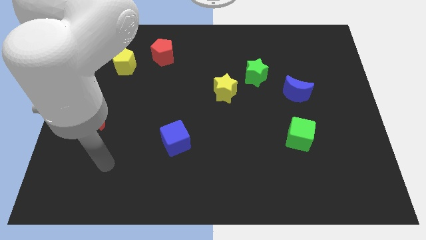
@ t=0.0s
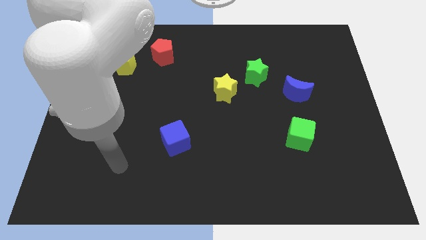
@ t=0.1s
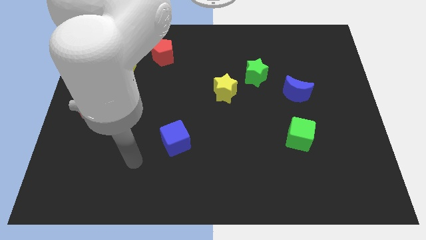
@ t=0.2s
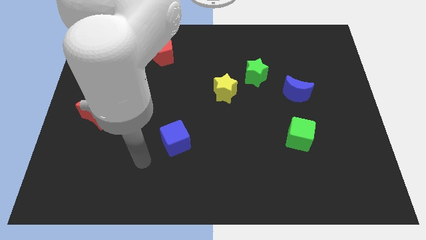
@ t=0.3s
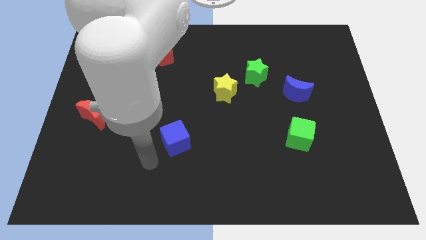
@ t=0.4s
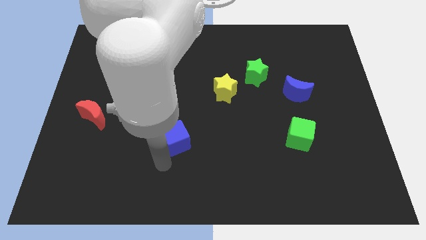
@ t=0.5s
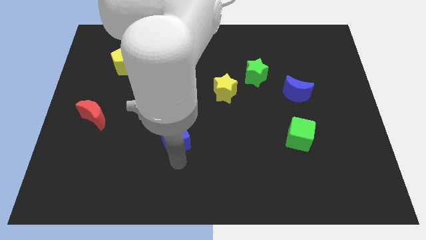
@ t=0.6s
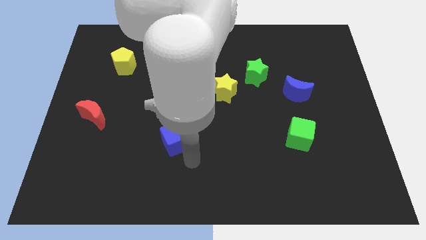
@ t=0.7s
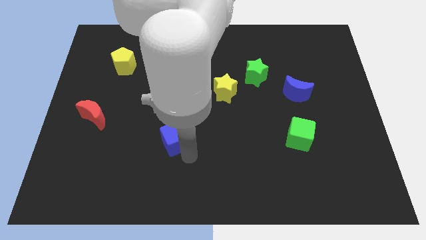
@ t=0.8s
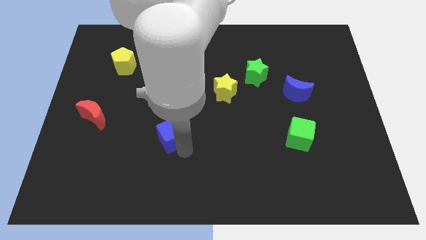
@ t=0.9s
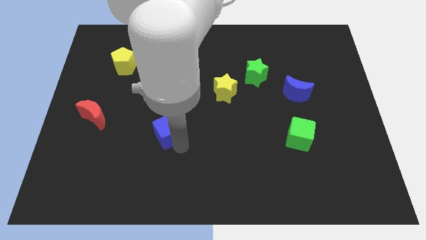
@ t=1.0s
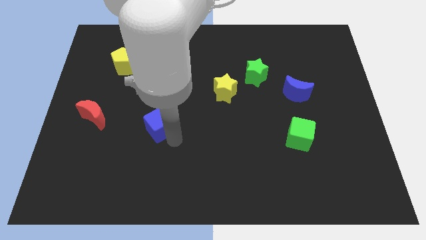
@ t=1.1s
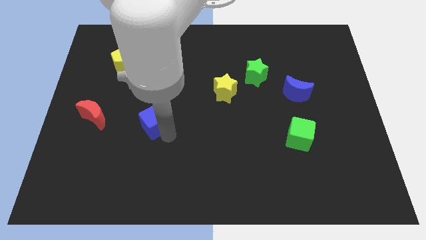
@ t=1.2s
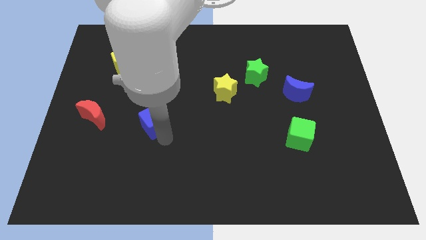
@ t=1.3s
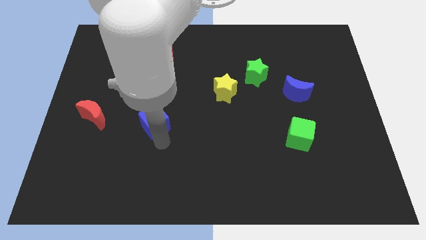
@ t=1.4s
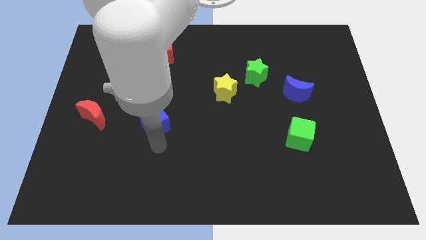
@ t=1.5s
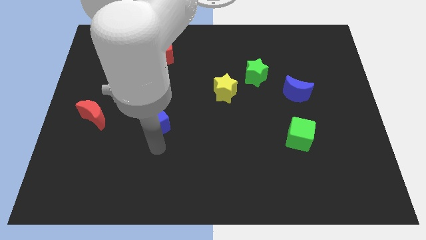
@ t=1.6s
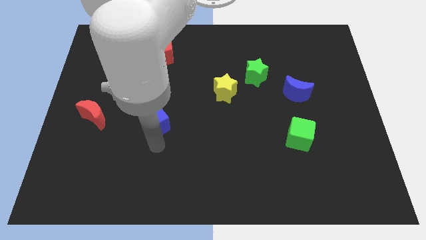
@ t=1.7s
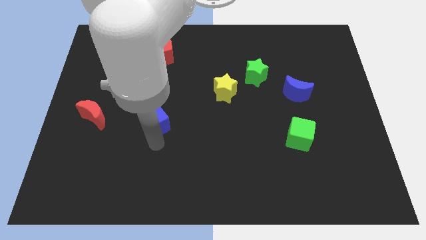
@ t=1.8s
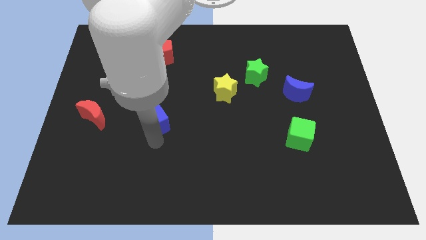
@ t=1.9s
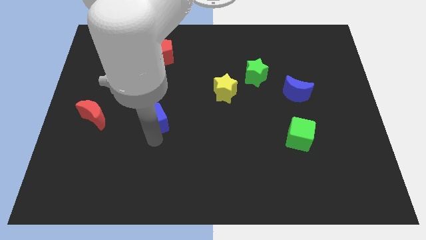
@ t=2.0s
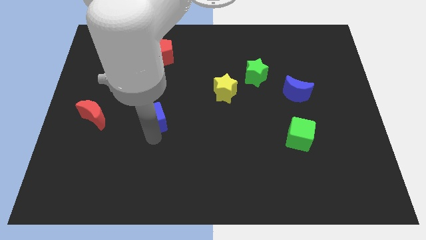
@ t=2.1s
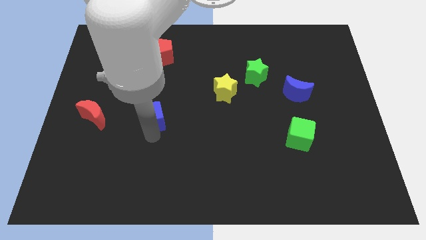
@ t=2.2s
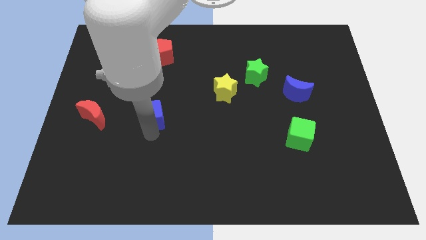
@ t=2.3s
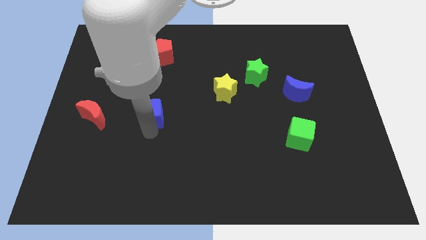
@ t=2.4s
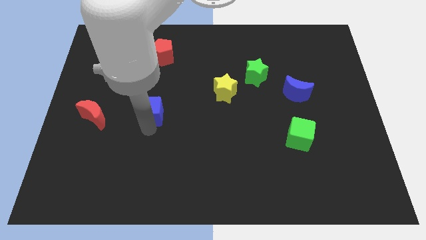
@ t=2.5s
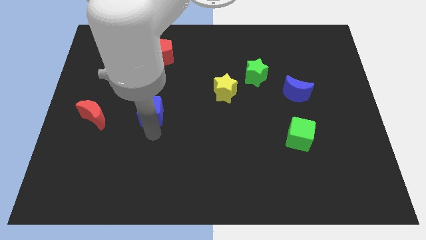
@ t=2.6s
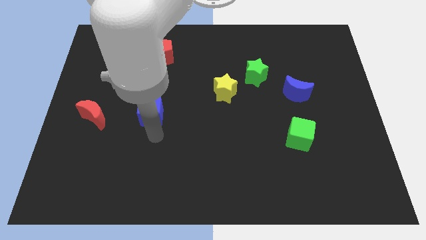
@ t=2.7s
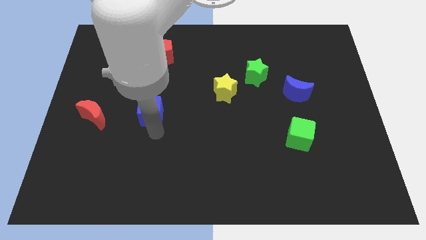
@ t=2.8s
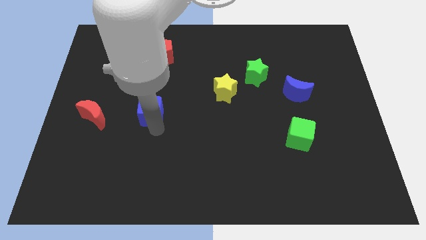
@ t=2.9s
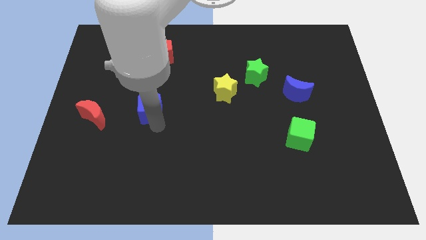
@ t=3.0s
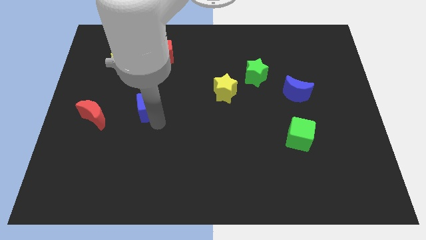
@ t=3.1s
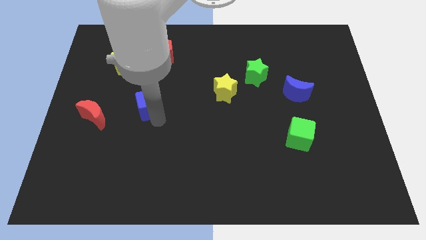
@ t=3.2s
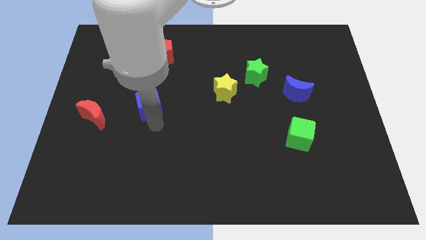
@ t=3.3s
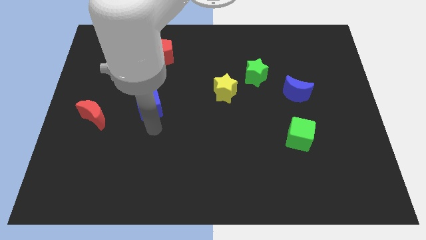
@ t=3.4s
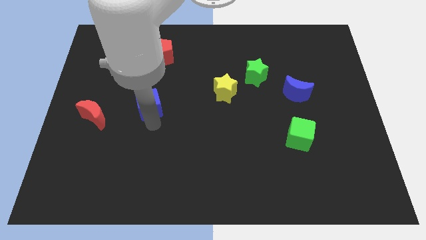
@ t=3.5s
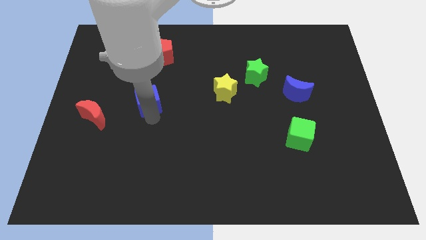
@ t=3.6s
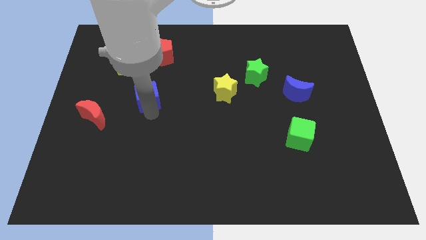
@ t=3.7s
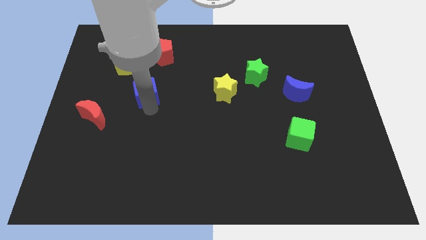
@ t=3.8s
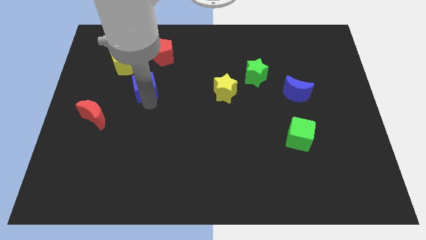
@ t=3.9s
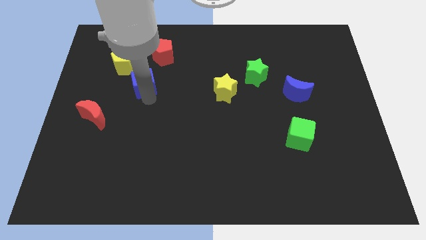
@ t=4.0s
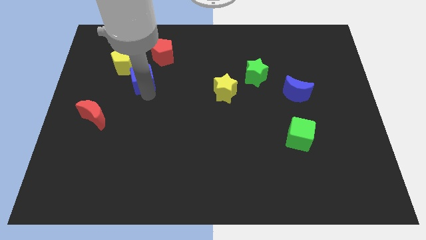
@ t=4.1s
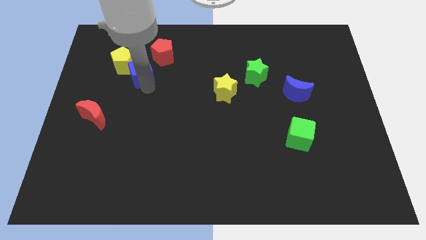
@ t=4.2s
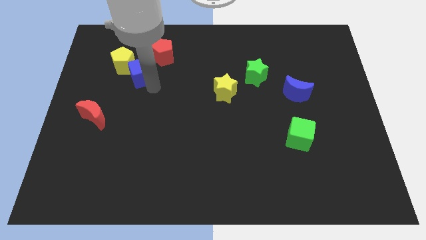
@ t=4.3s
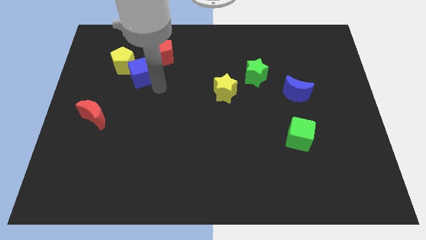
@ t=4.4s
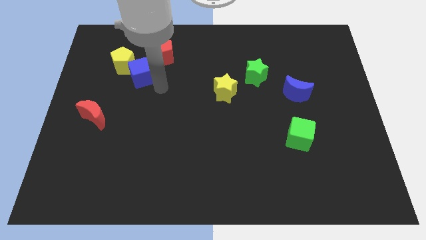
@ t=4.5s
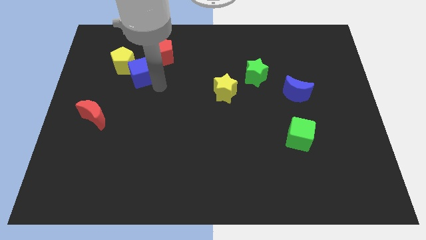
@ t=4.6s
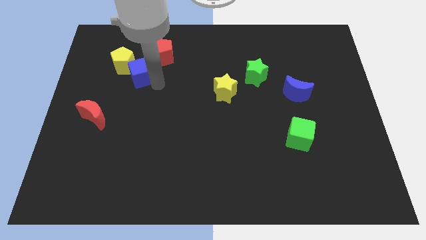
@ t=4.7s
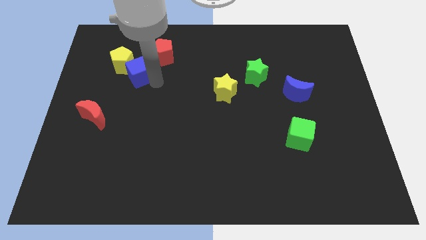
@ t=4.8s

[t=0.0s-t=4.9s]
push the blue cube to the yellow pentagon

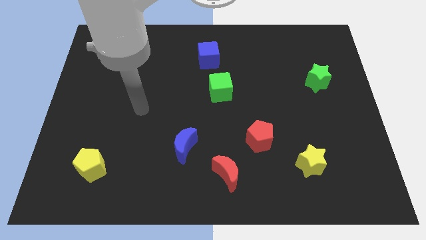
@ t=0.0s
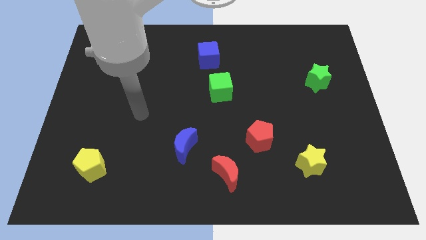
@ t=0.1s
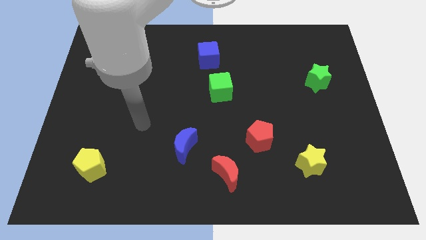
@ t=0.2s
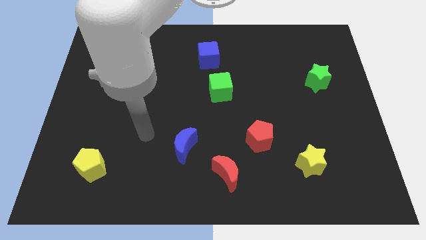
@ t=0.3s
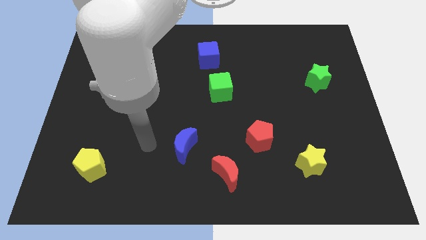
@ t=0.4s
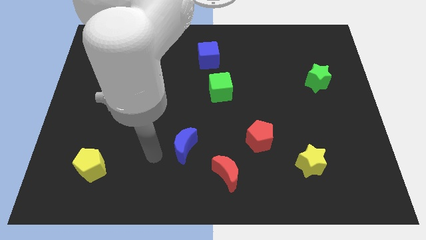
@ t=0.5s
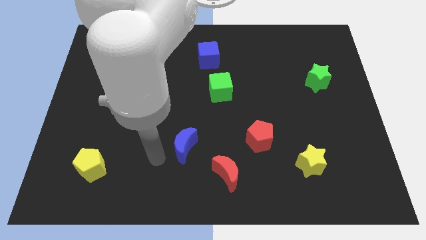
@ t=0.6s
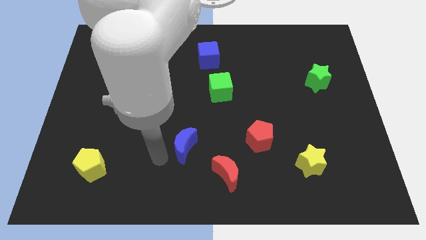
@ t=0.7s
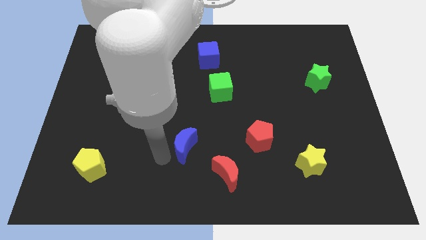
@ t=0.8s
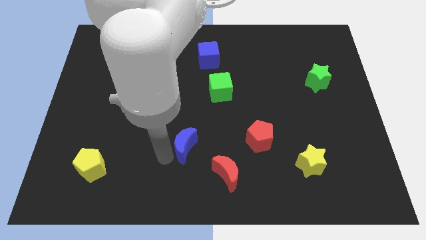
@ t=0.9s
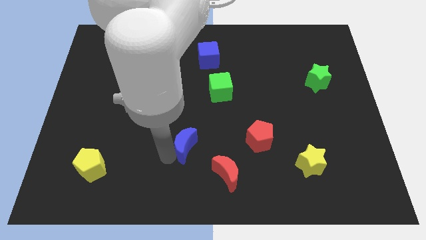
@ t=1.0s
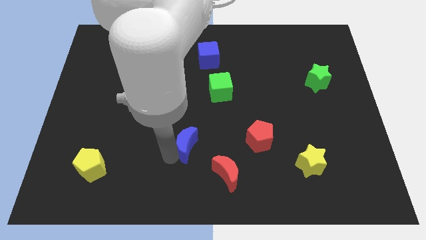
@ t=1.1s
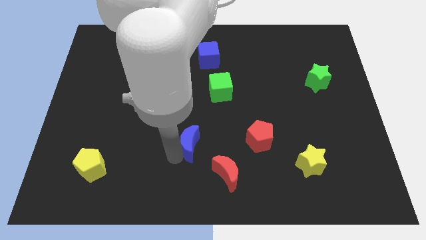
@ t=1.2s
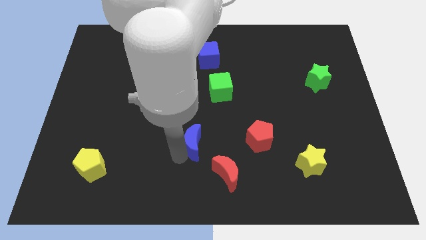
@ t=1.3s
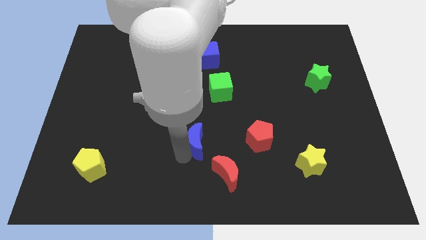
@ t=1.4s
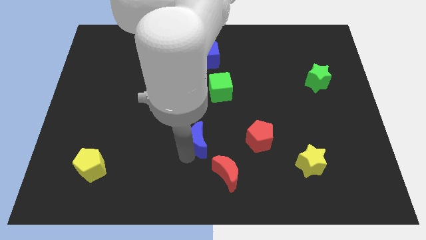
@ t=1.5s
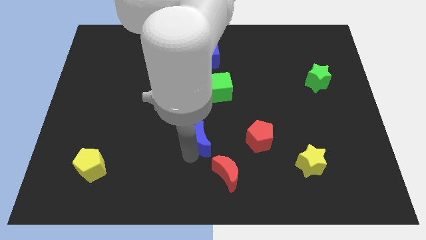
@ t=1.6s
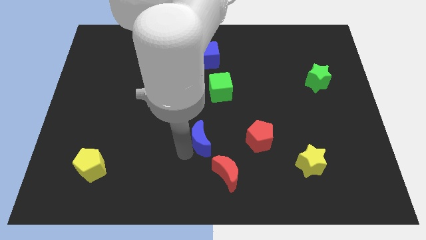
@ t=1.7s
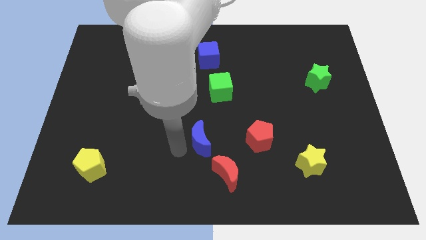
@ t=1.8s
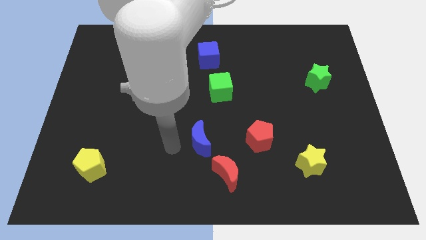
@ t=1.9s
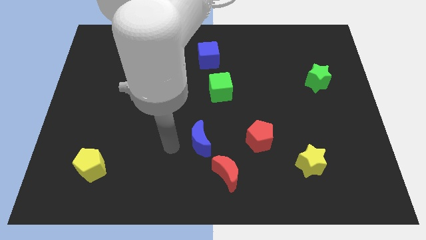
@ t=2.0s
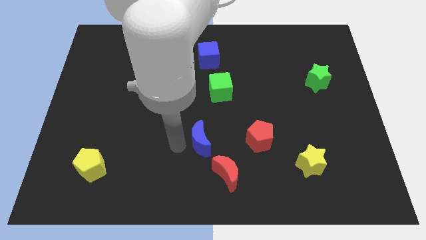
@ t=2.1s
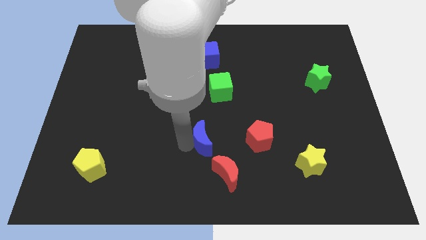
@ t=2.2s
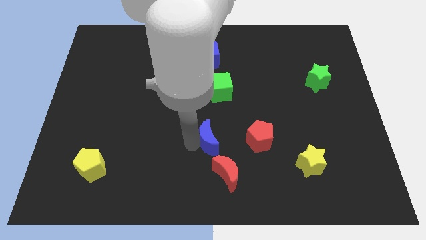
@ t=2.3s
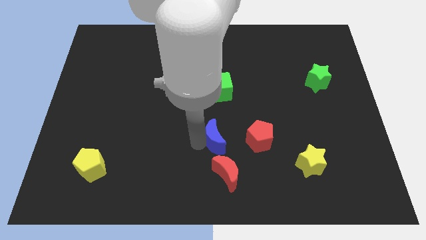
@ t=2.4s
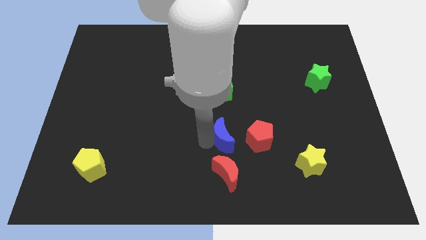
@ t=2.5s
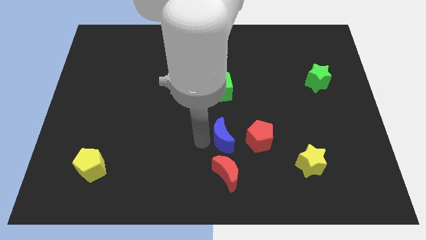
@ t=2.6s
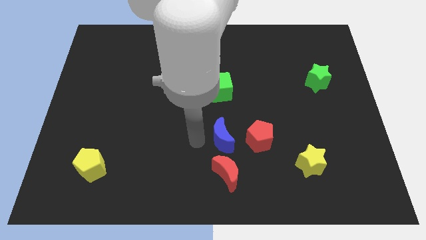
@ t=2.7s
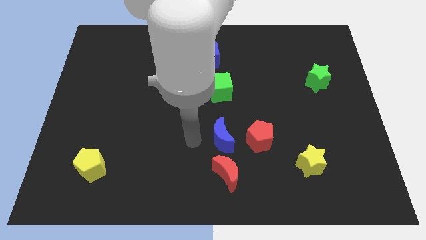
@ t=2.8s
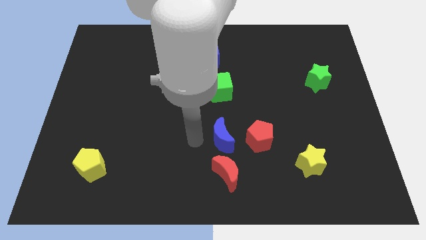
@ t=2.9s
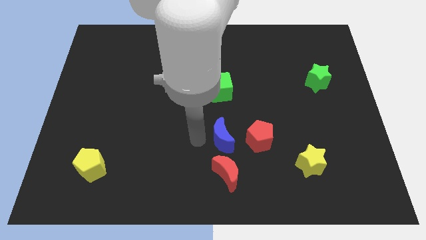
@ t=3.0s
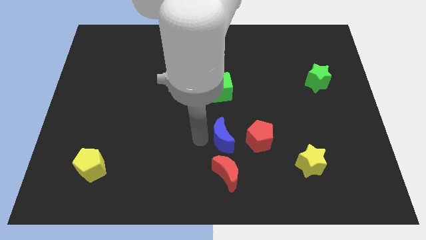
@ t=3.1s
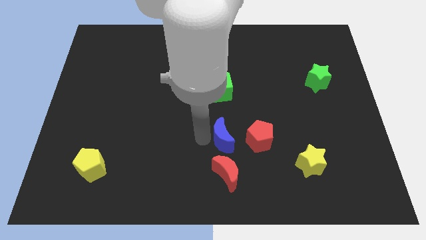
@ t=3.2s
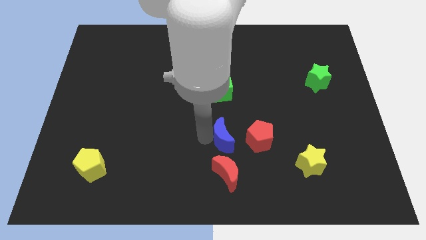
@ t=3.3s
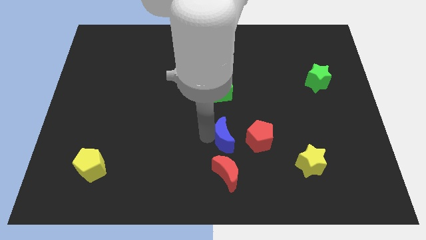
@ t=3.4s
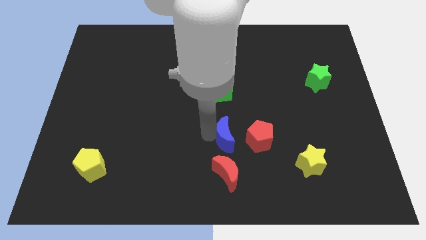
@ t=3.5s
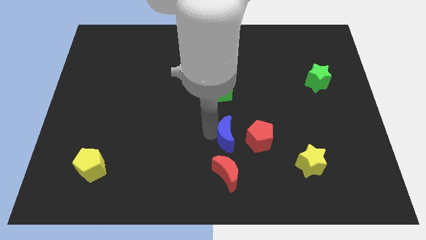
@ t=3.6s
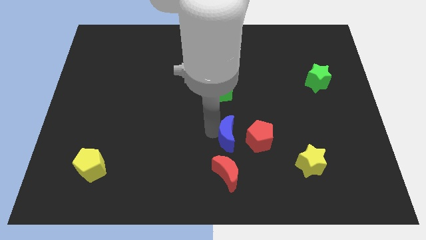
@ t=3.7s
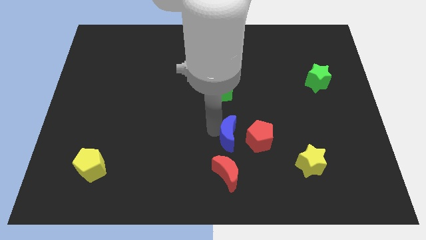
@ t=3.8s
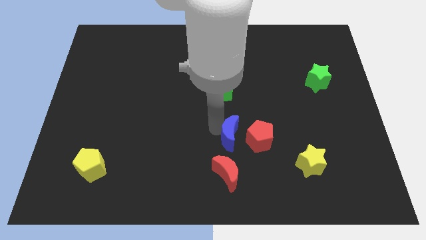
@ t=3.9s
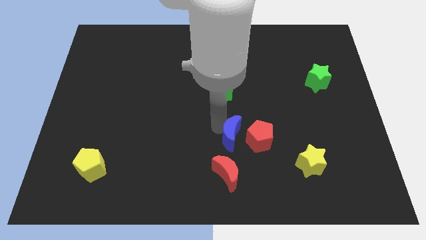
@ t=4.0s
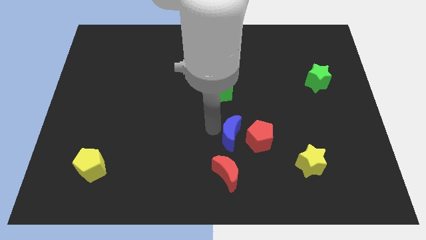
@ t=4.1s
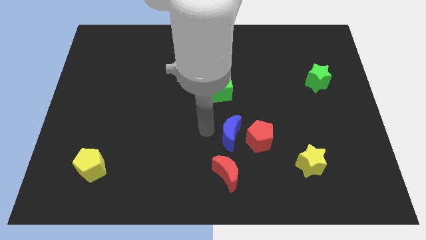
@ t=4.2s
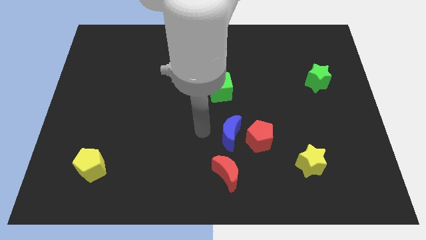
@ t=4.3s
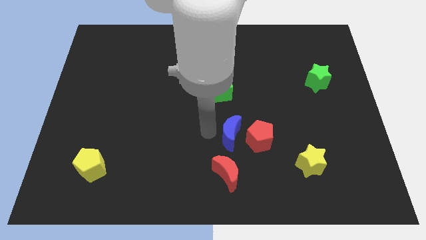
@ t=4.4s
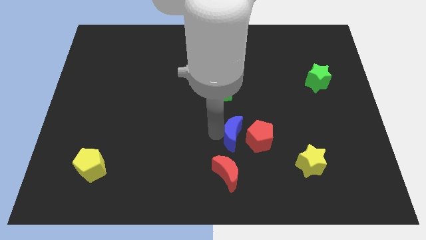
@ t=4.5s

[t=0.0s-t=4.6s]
push the blue moon close to the red pentagon
